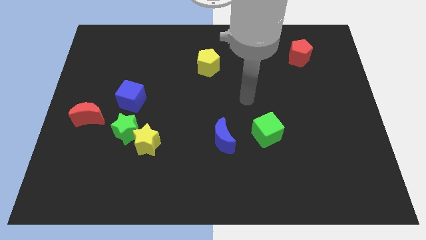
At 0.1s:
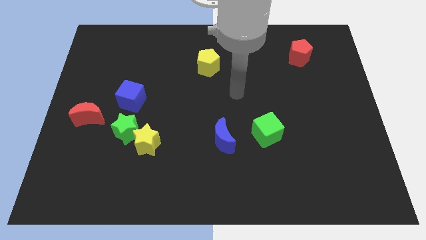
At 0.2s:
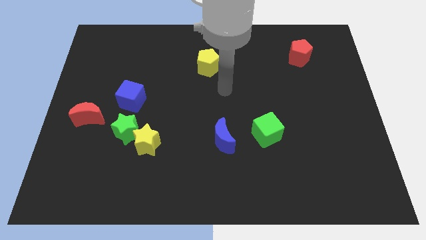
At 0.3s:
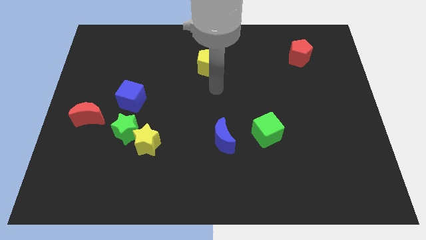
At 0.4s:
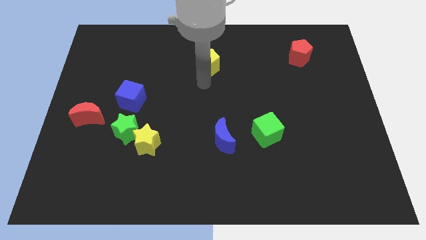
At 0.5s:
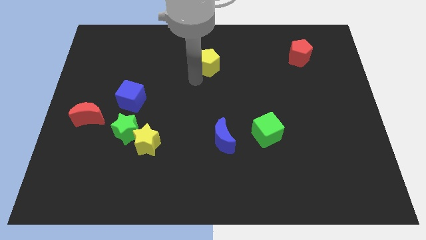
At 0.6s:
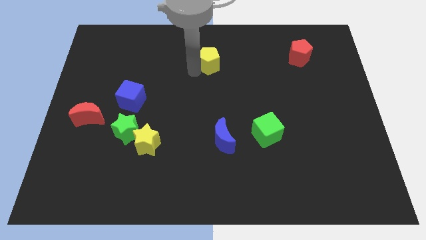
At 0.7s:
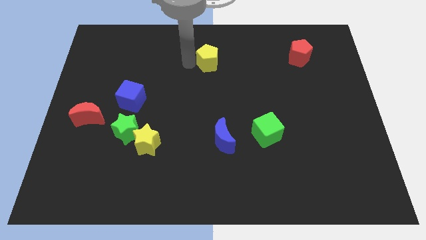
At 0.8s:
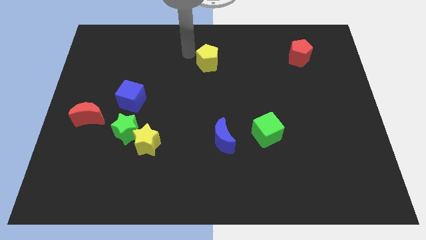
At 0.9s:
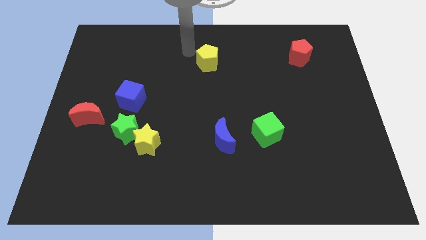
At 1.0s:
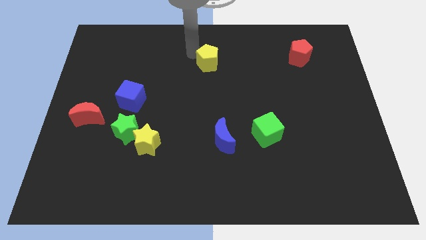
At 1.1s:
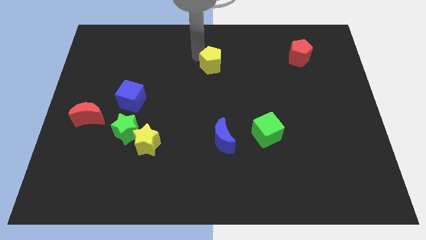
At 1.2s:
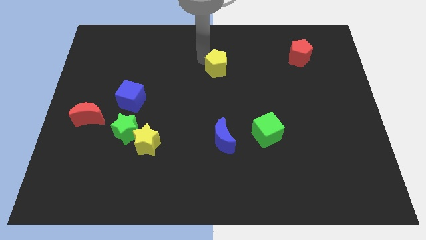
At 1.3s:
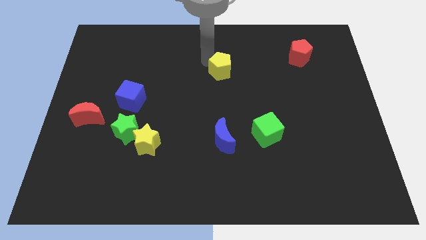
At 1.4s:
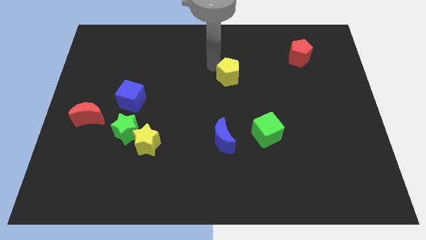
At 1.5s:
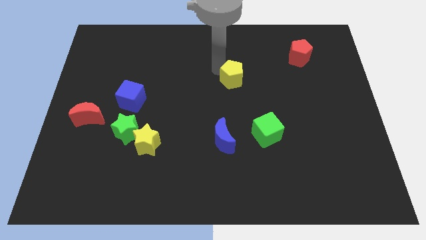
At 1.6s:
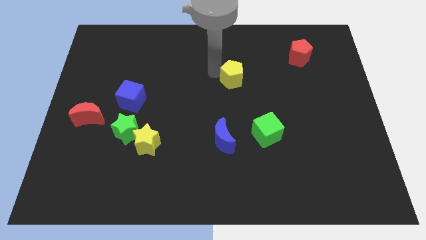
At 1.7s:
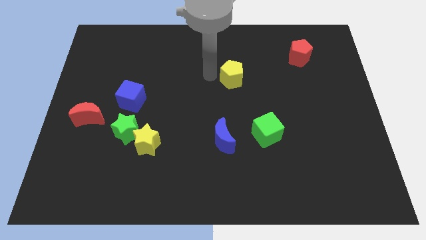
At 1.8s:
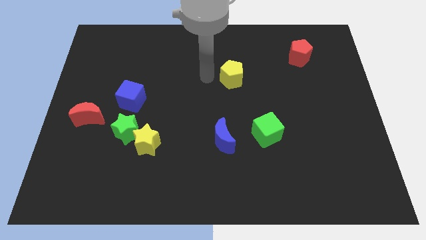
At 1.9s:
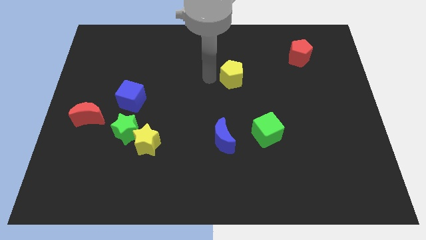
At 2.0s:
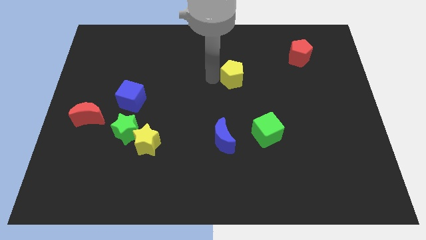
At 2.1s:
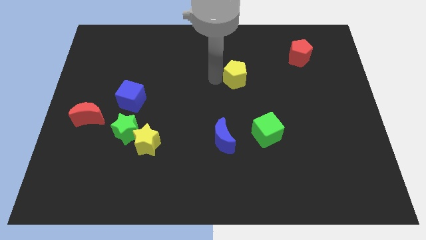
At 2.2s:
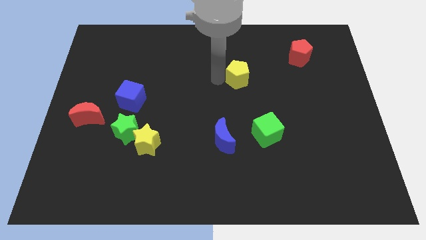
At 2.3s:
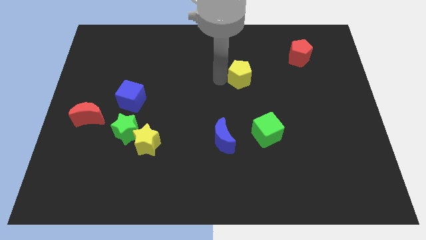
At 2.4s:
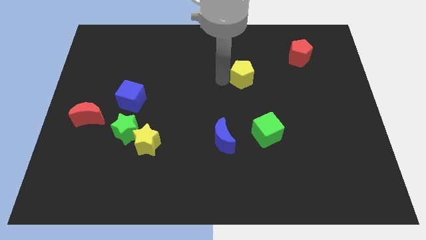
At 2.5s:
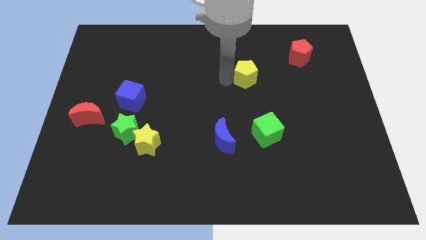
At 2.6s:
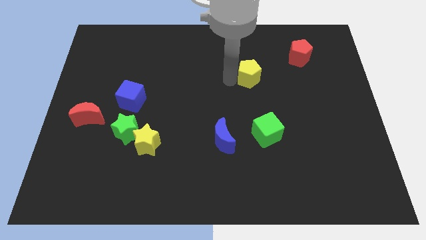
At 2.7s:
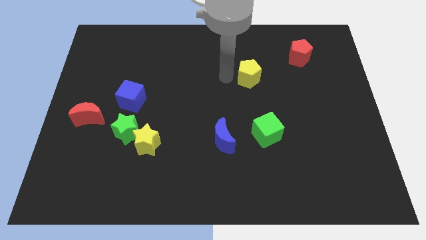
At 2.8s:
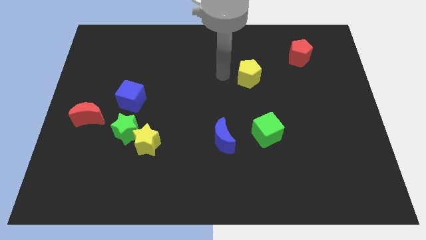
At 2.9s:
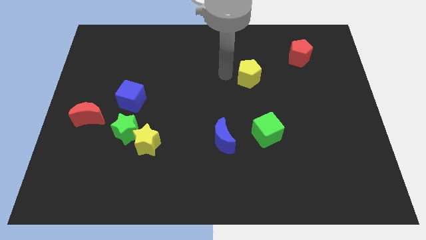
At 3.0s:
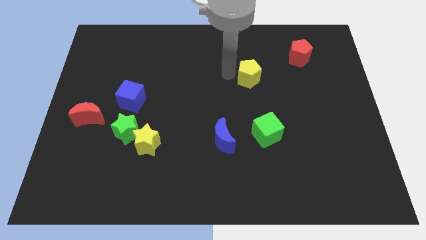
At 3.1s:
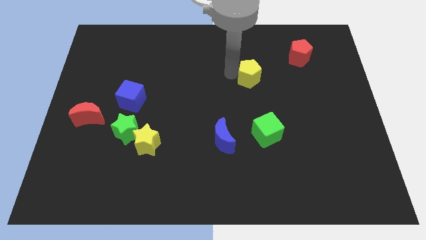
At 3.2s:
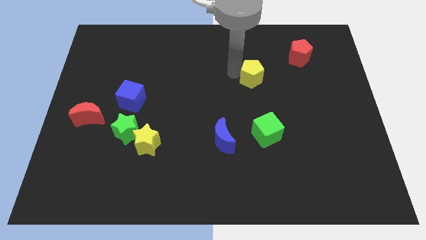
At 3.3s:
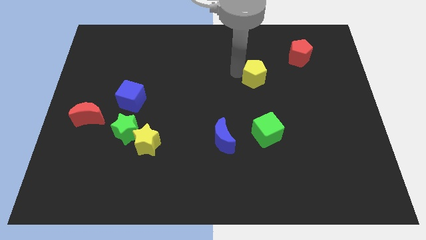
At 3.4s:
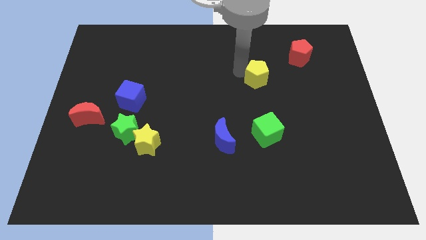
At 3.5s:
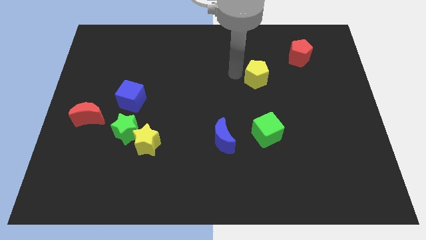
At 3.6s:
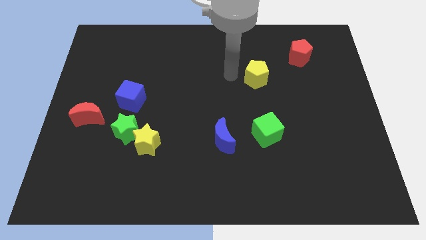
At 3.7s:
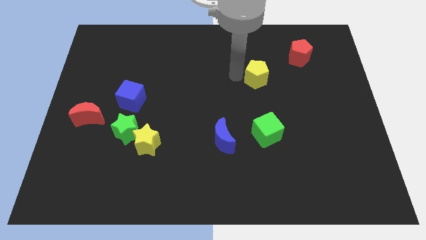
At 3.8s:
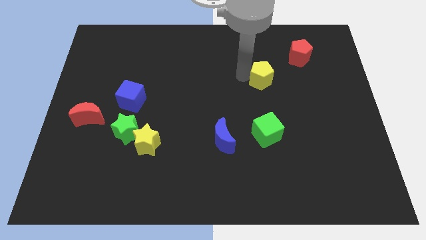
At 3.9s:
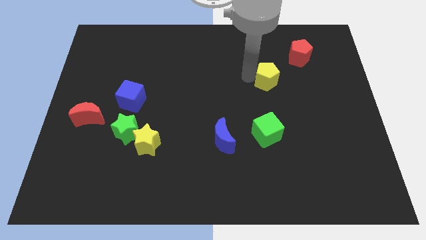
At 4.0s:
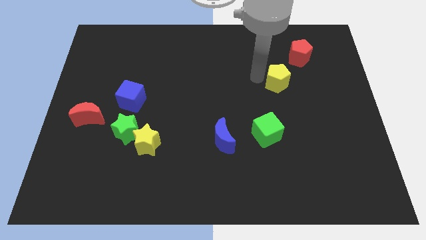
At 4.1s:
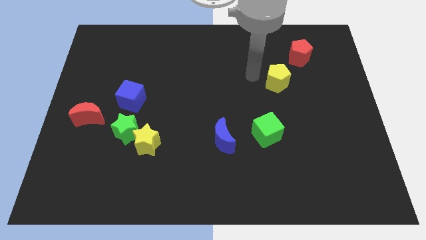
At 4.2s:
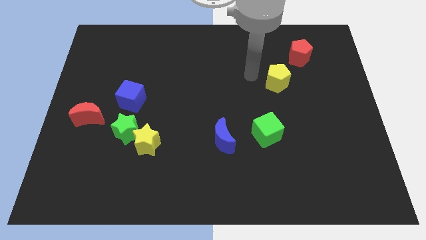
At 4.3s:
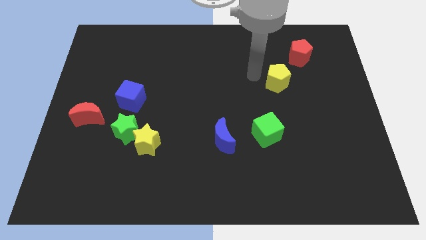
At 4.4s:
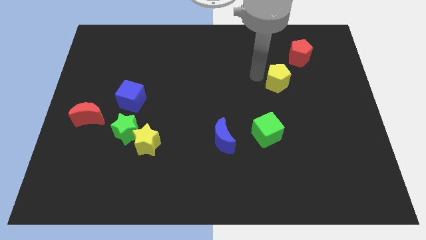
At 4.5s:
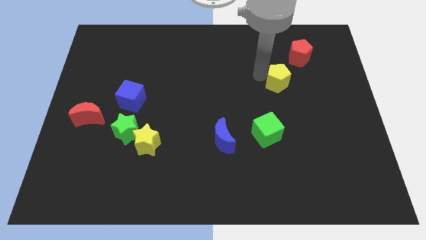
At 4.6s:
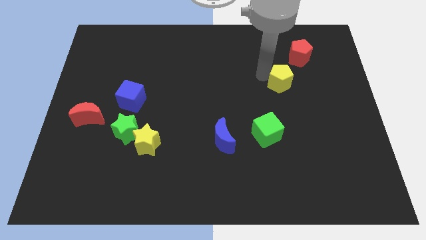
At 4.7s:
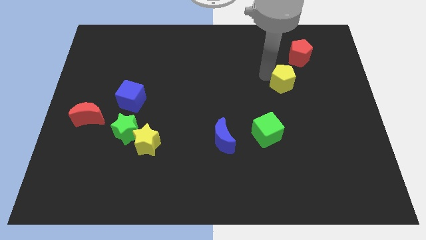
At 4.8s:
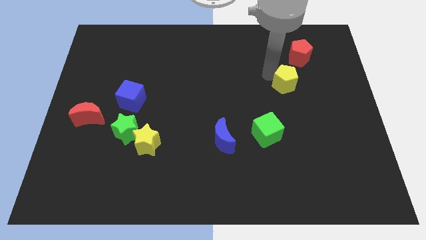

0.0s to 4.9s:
move the yellow pentagon to the bottom side of the red pentagon

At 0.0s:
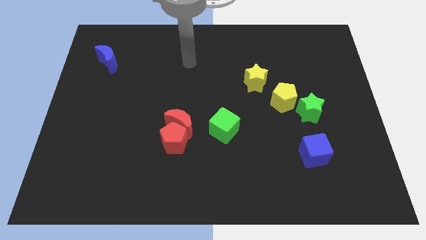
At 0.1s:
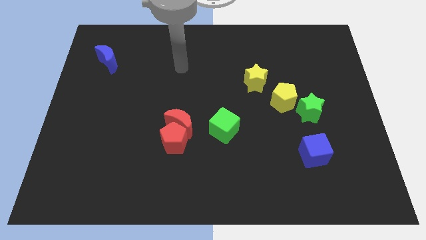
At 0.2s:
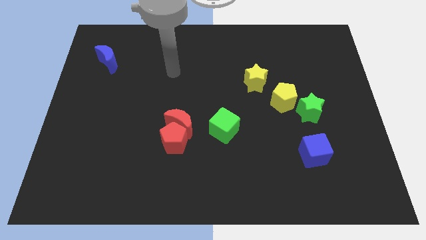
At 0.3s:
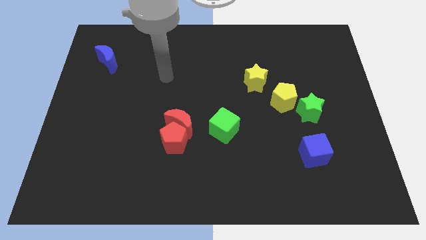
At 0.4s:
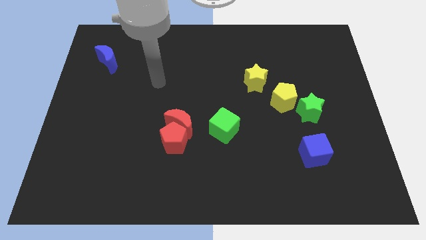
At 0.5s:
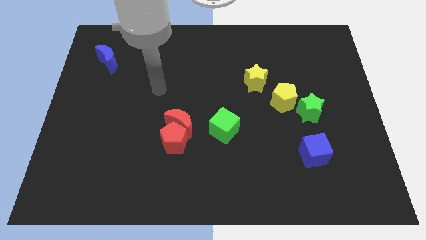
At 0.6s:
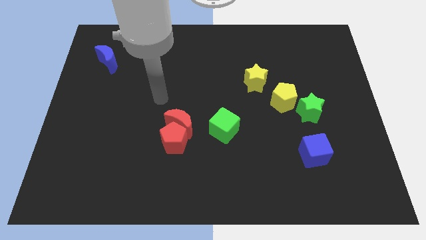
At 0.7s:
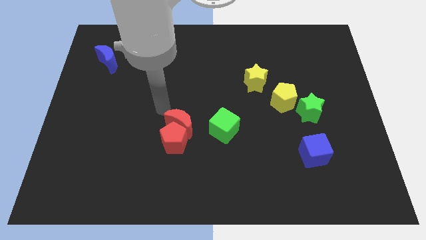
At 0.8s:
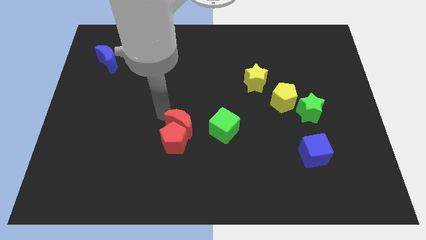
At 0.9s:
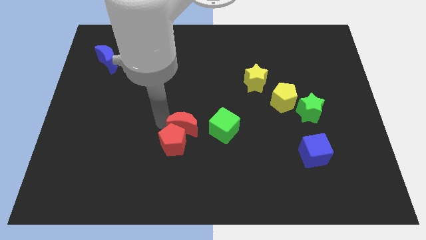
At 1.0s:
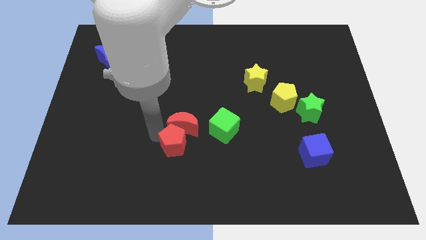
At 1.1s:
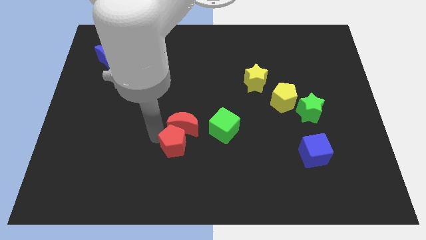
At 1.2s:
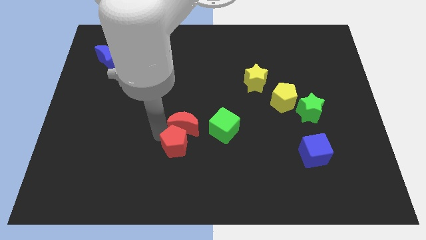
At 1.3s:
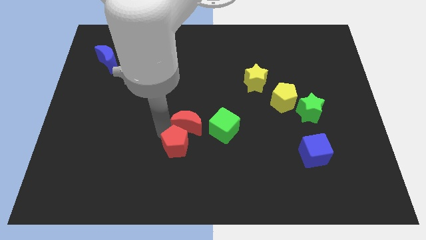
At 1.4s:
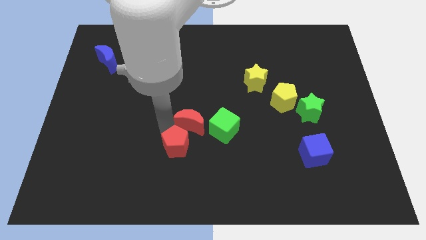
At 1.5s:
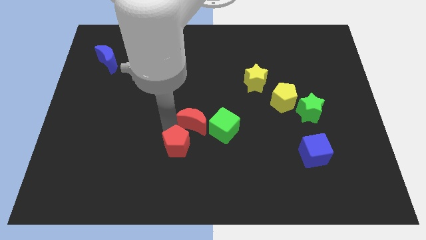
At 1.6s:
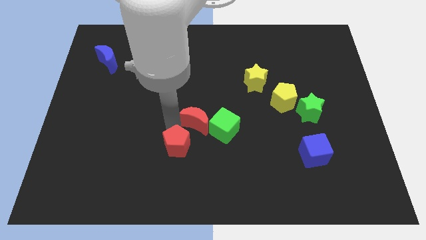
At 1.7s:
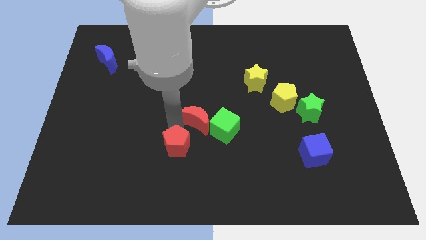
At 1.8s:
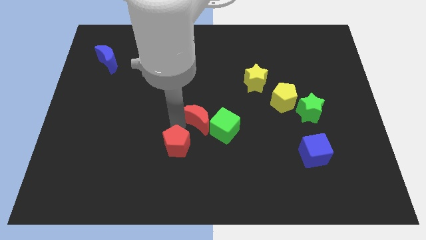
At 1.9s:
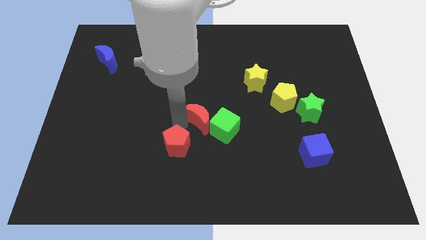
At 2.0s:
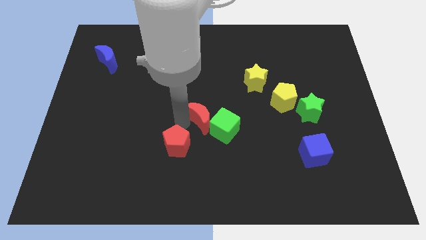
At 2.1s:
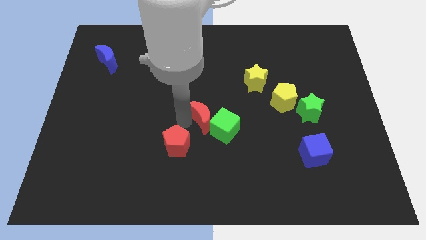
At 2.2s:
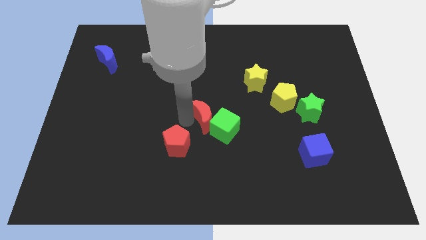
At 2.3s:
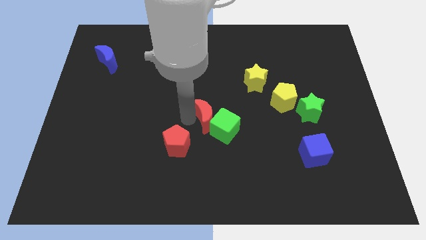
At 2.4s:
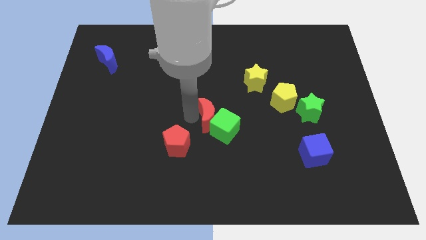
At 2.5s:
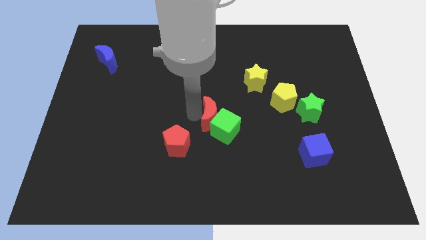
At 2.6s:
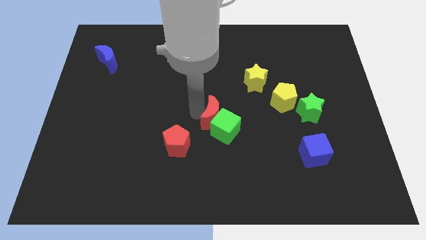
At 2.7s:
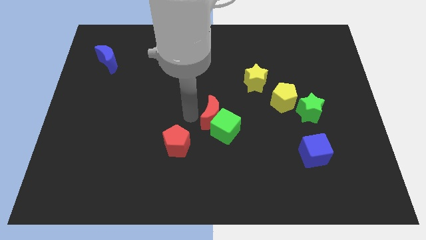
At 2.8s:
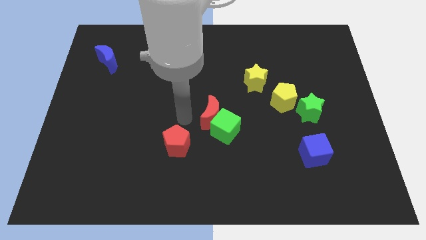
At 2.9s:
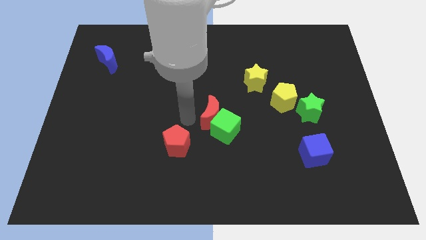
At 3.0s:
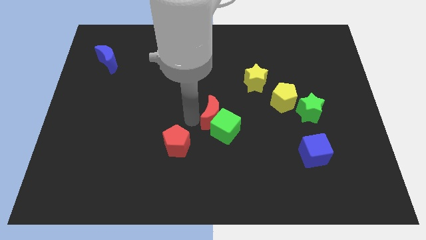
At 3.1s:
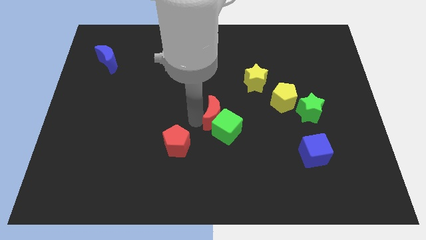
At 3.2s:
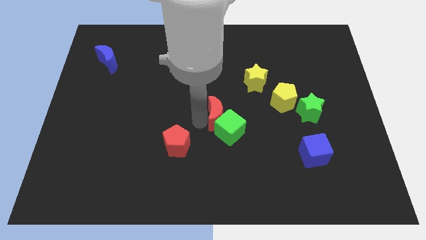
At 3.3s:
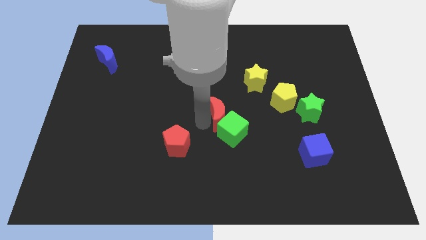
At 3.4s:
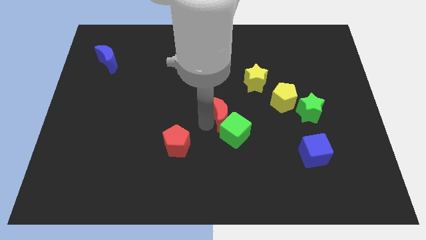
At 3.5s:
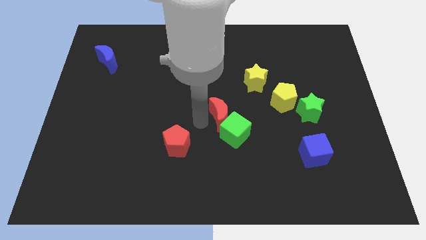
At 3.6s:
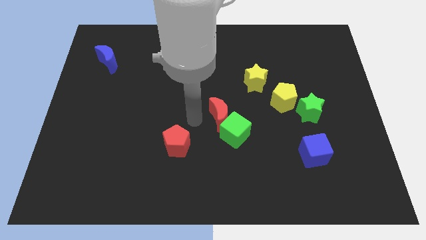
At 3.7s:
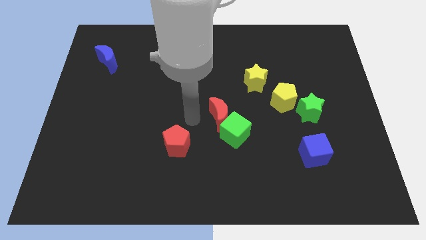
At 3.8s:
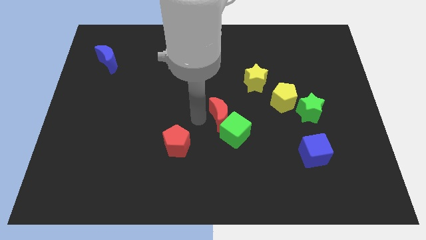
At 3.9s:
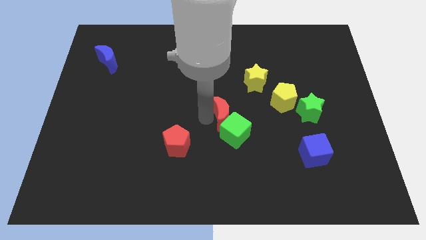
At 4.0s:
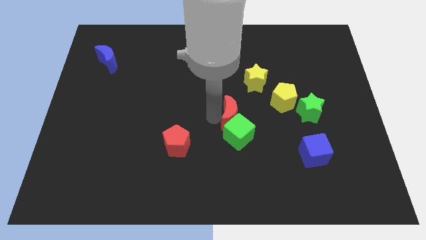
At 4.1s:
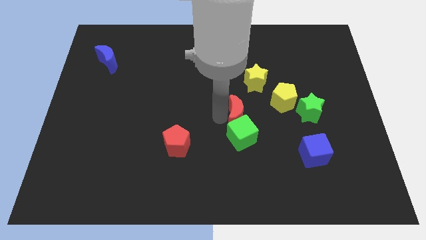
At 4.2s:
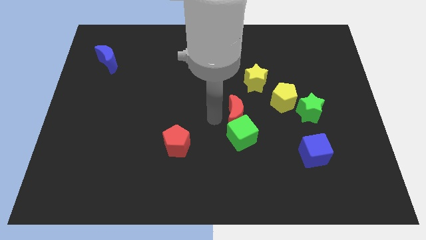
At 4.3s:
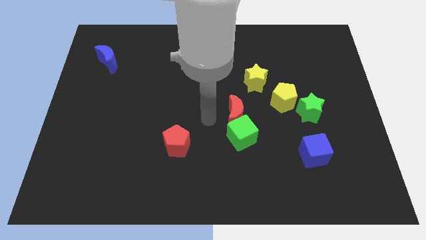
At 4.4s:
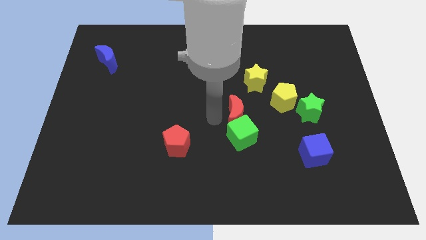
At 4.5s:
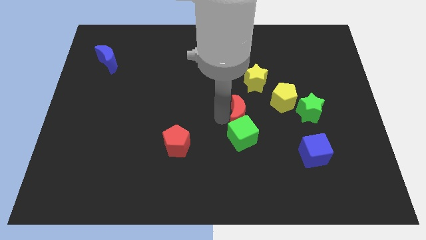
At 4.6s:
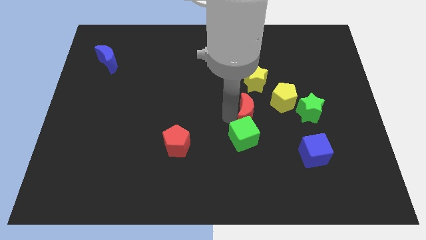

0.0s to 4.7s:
put the red moon to the left of the green star
